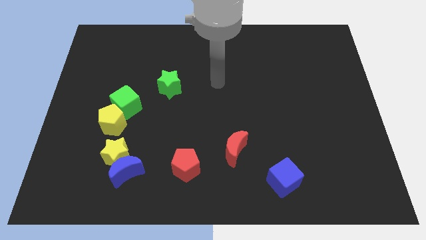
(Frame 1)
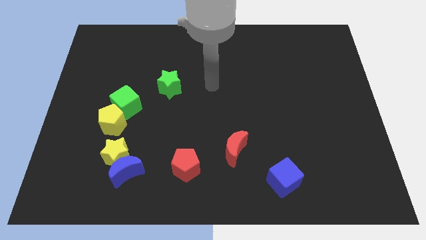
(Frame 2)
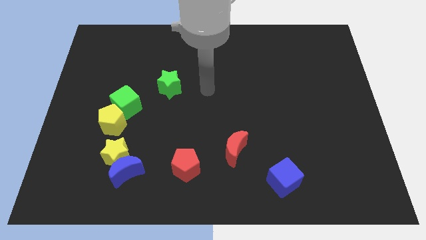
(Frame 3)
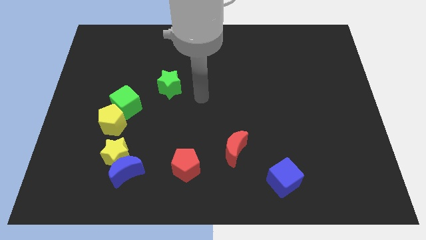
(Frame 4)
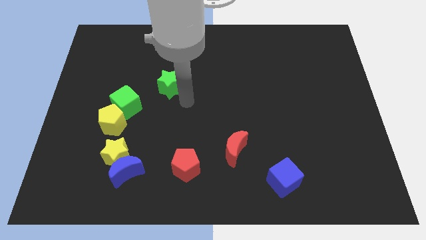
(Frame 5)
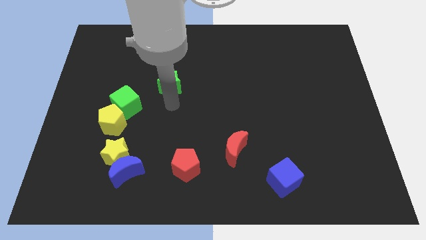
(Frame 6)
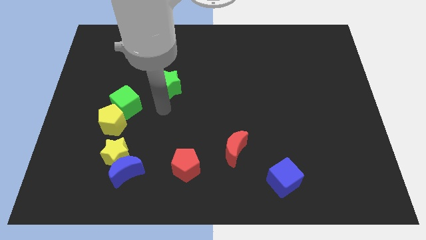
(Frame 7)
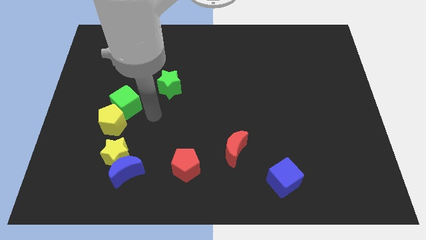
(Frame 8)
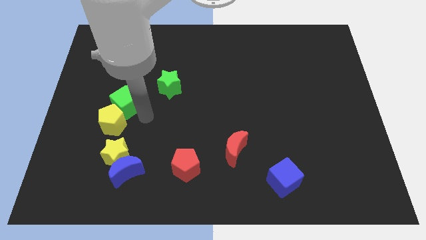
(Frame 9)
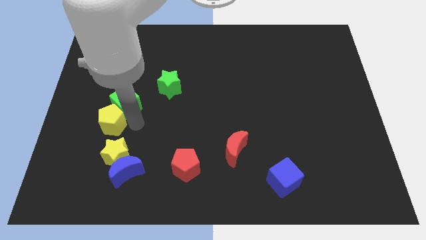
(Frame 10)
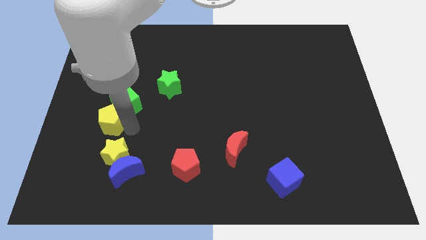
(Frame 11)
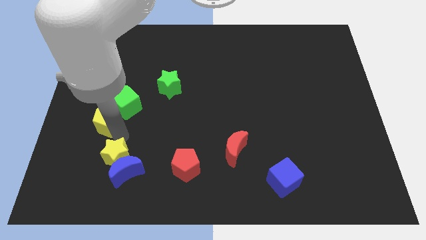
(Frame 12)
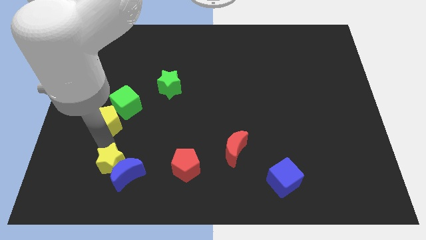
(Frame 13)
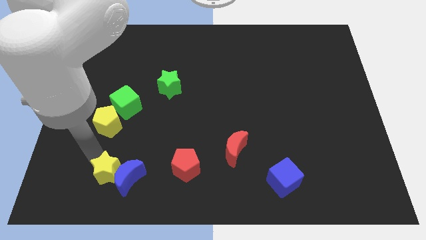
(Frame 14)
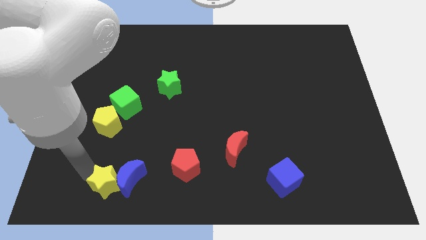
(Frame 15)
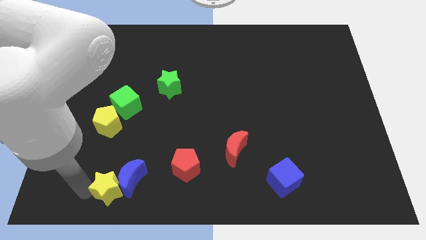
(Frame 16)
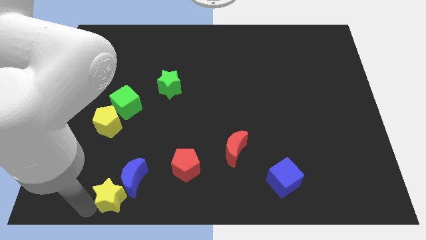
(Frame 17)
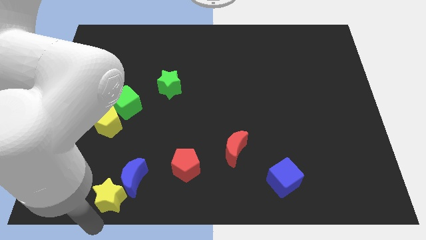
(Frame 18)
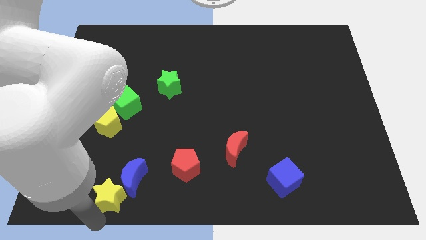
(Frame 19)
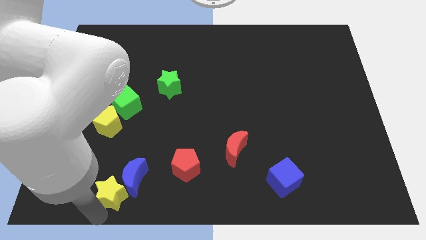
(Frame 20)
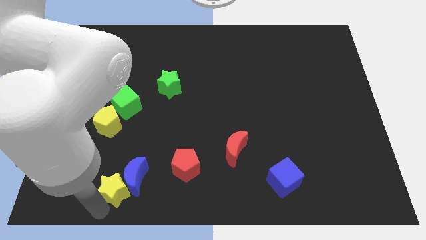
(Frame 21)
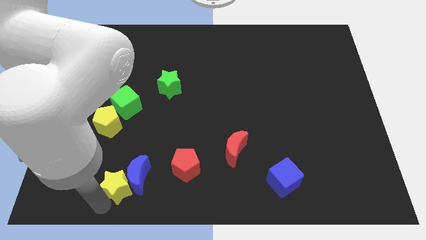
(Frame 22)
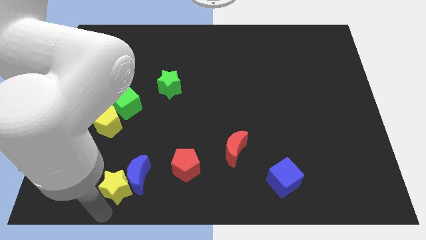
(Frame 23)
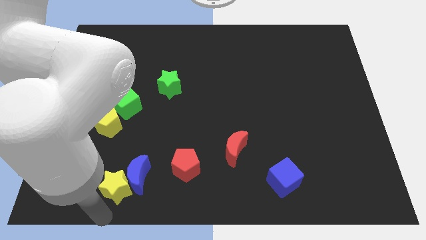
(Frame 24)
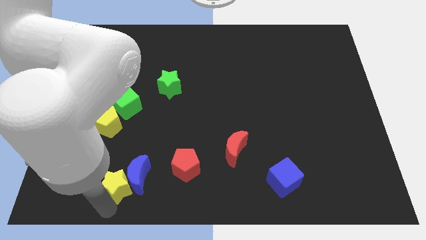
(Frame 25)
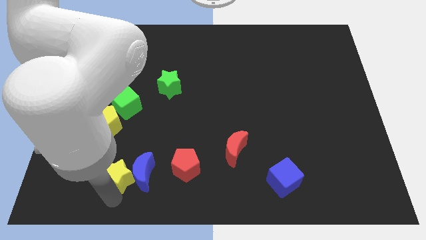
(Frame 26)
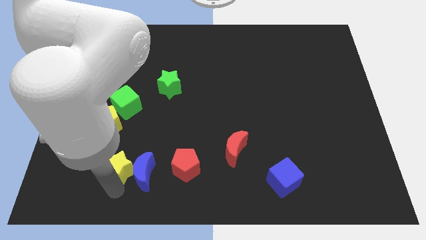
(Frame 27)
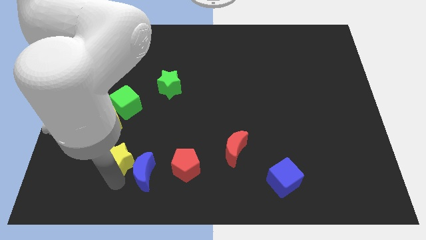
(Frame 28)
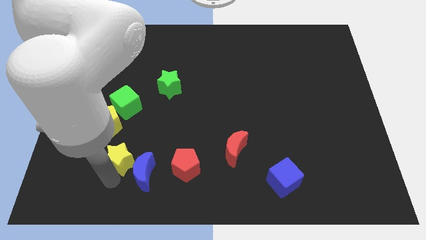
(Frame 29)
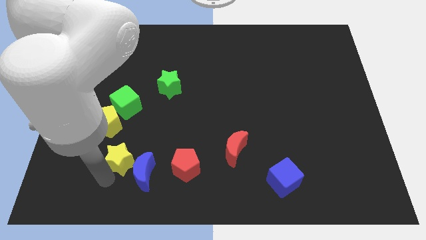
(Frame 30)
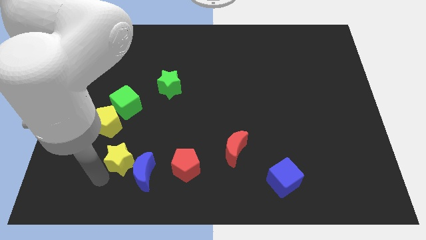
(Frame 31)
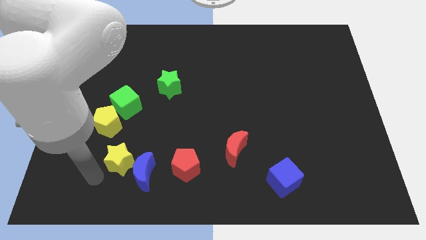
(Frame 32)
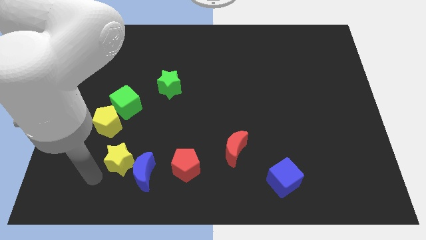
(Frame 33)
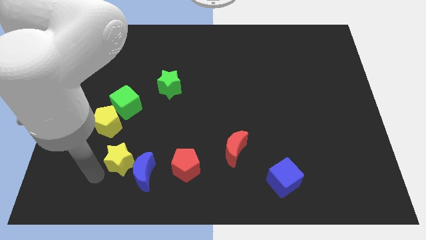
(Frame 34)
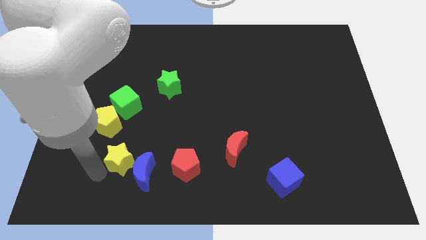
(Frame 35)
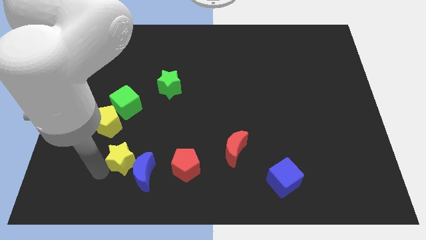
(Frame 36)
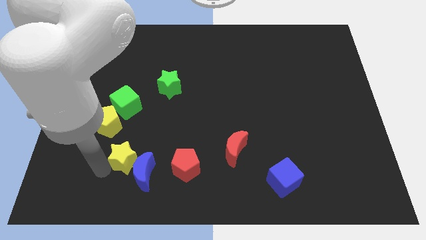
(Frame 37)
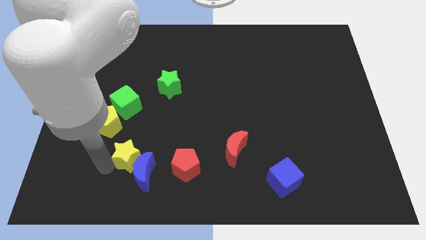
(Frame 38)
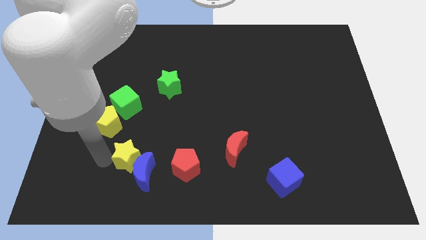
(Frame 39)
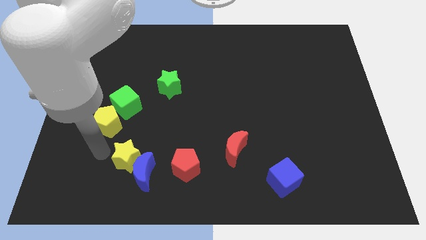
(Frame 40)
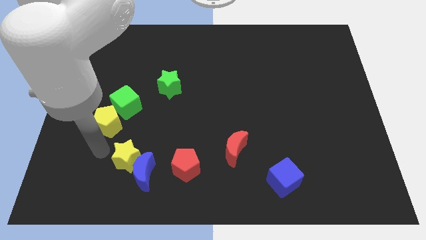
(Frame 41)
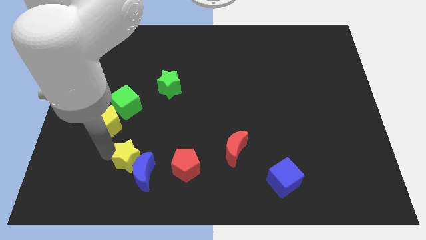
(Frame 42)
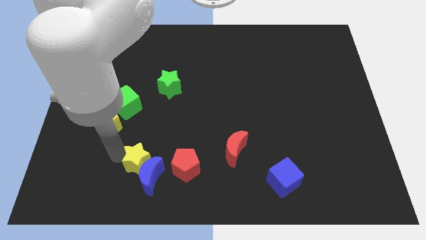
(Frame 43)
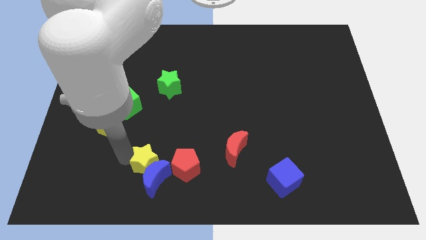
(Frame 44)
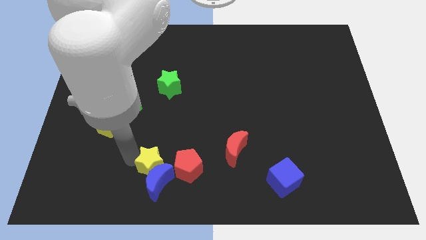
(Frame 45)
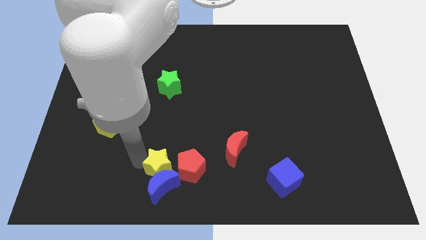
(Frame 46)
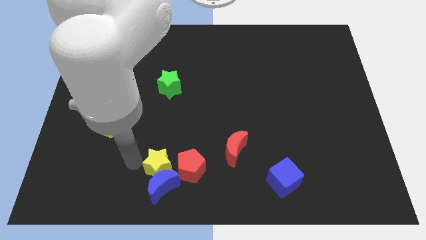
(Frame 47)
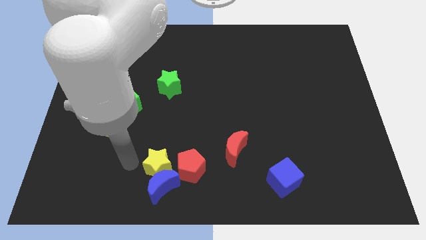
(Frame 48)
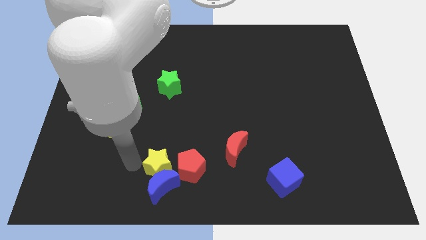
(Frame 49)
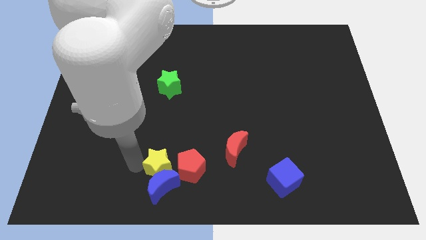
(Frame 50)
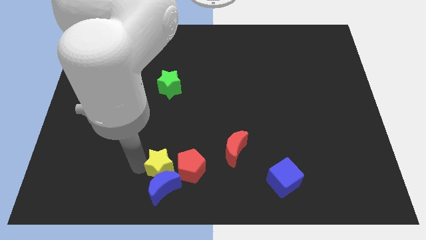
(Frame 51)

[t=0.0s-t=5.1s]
move the yellow star next to the red pentagon

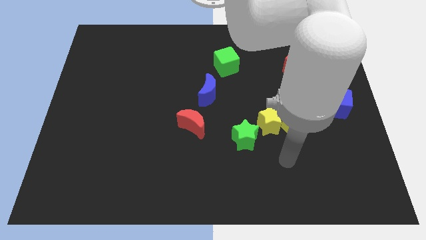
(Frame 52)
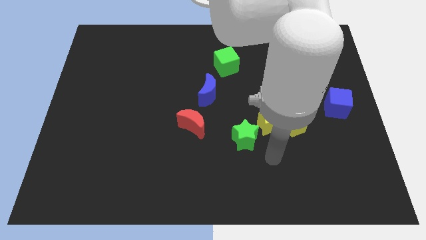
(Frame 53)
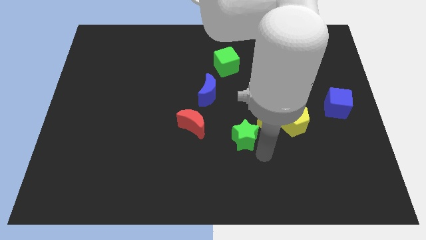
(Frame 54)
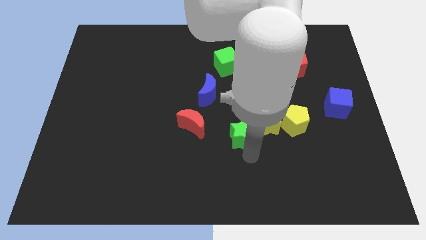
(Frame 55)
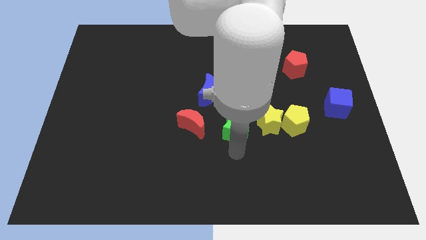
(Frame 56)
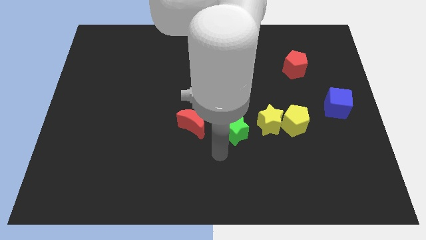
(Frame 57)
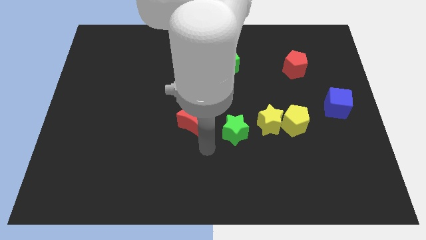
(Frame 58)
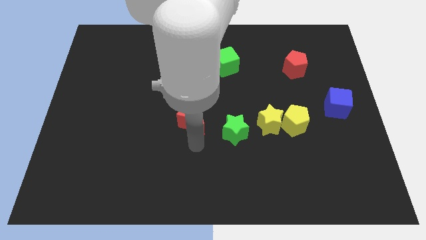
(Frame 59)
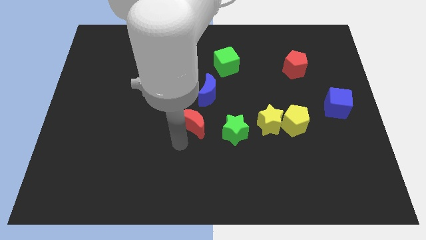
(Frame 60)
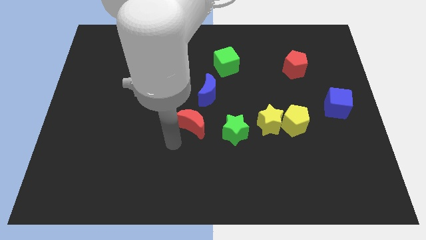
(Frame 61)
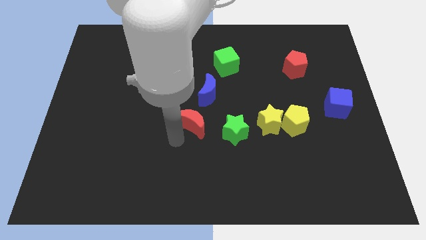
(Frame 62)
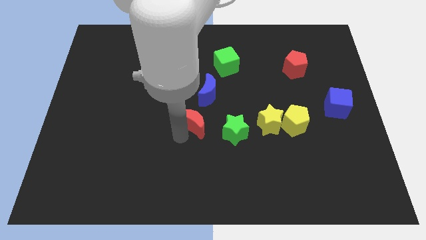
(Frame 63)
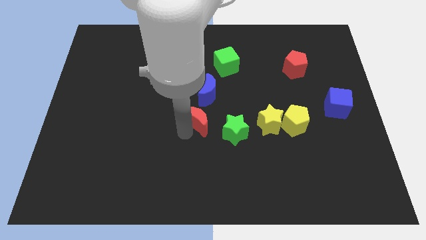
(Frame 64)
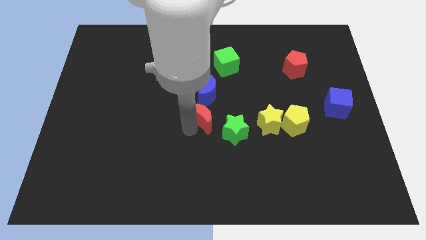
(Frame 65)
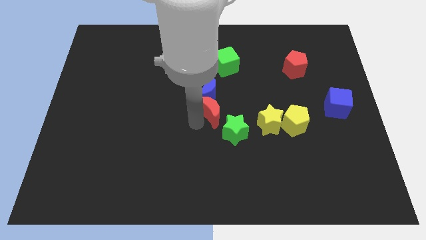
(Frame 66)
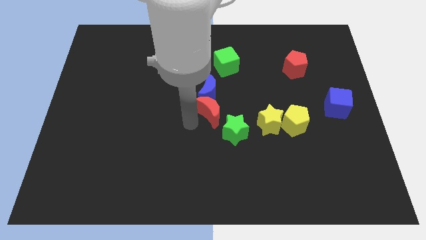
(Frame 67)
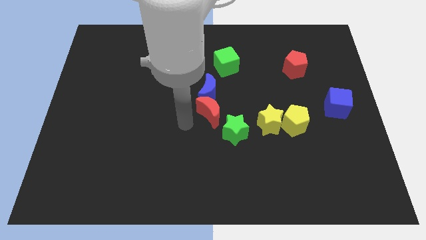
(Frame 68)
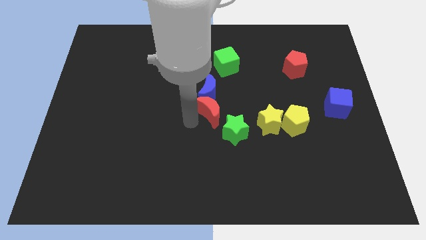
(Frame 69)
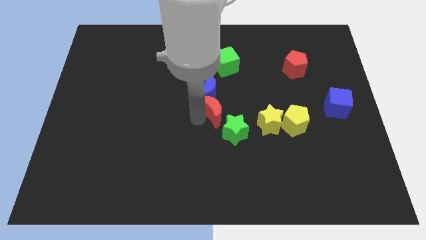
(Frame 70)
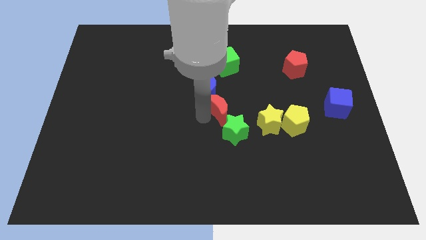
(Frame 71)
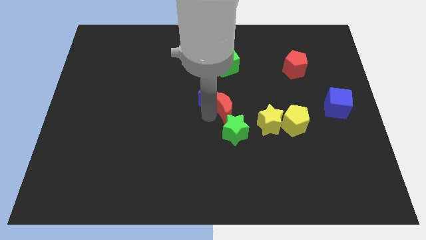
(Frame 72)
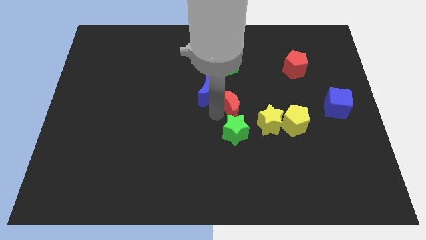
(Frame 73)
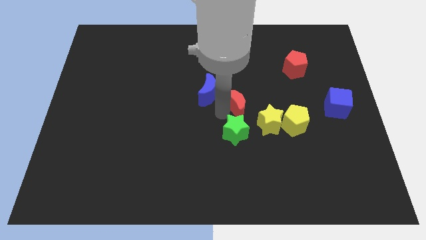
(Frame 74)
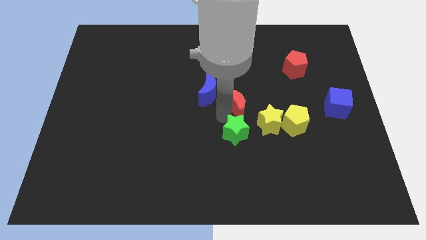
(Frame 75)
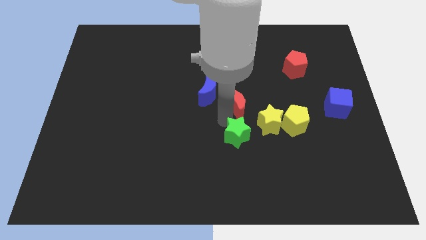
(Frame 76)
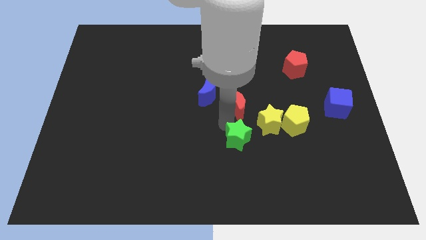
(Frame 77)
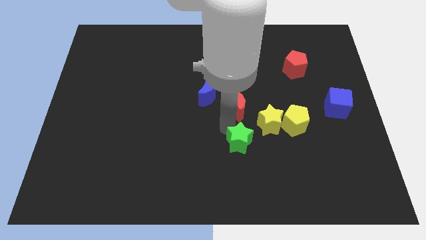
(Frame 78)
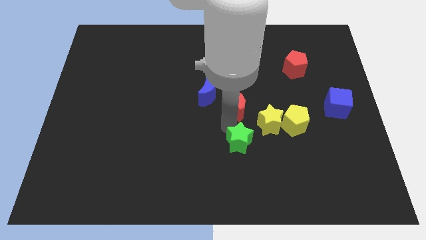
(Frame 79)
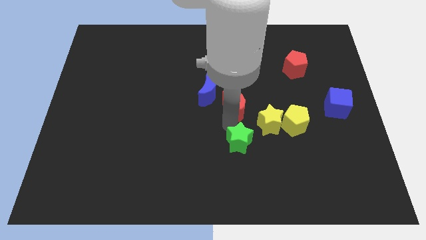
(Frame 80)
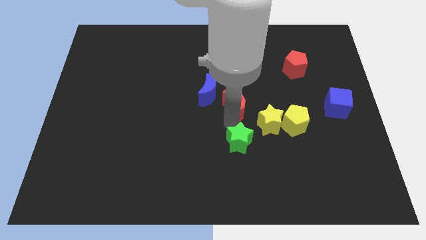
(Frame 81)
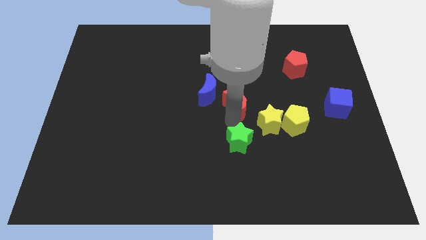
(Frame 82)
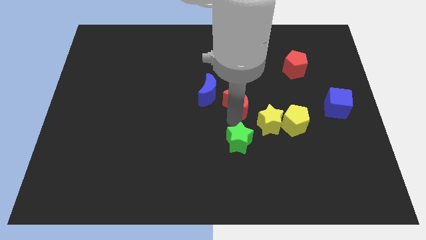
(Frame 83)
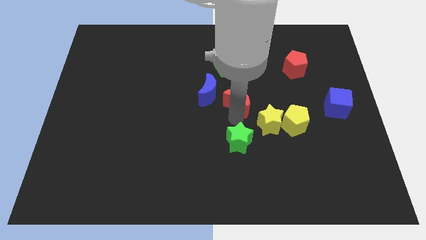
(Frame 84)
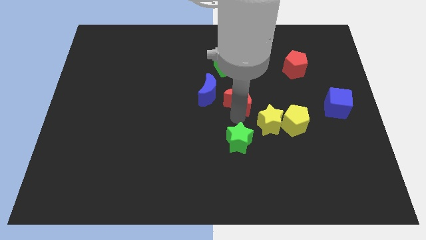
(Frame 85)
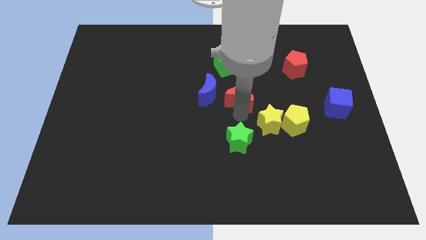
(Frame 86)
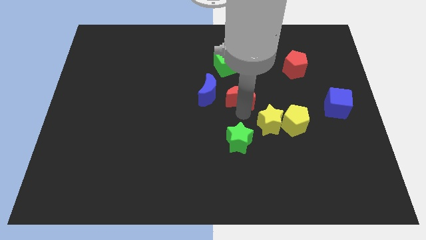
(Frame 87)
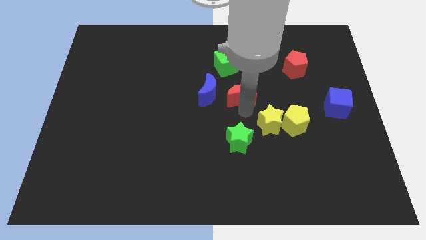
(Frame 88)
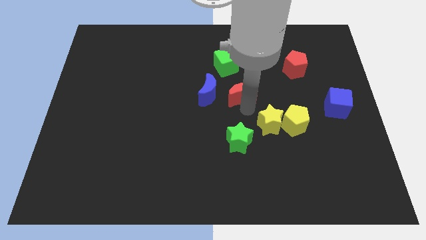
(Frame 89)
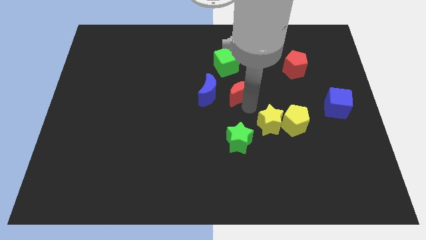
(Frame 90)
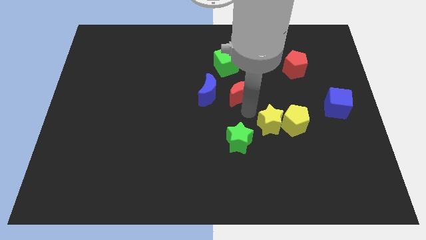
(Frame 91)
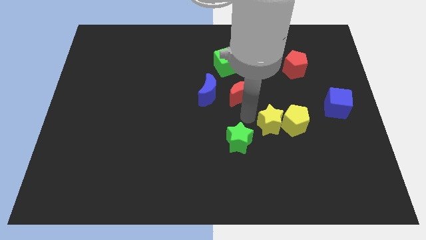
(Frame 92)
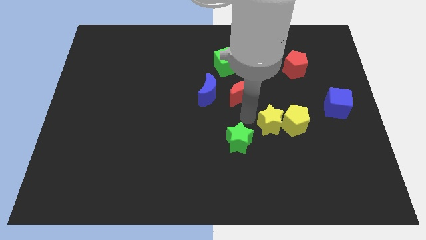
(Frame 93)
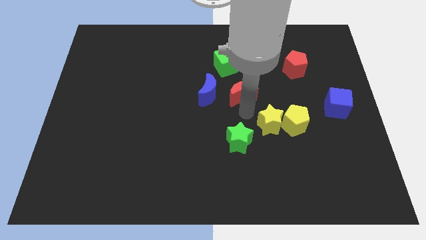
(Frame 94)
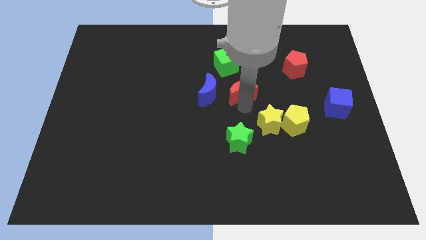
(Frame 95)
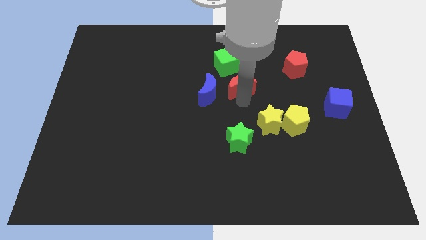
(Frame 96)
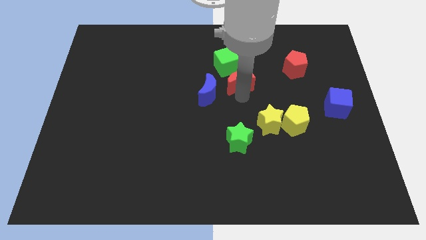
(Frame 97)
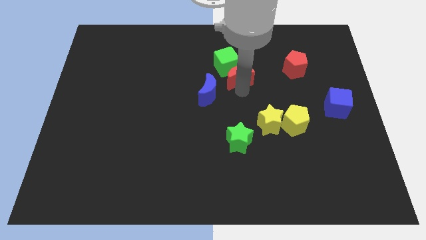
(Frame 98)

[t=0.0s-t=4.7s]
move the red moon to the green cube
